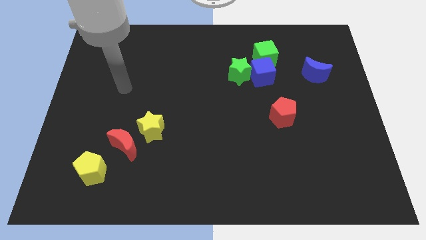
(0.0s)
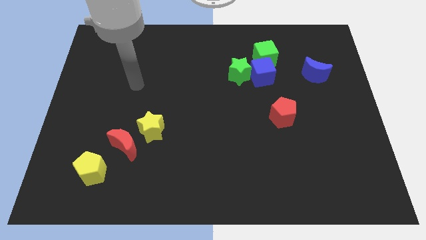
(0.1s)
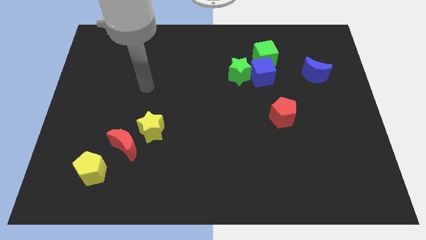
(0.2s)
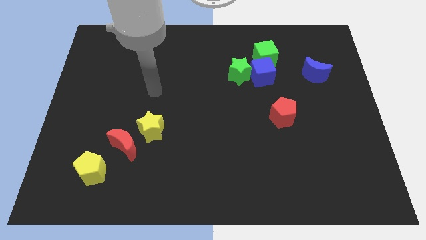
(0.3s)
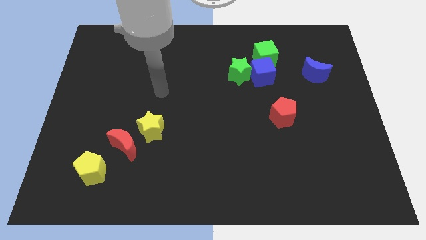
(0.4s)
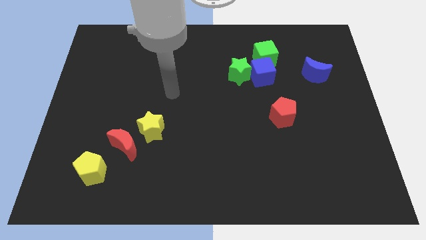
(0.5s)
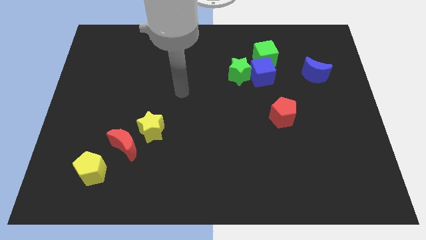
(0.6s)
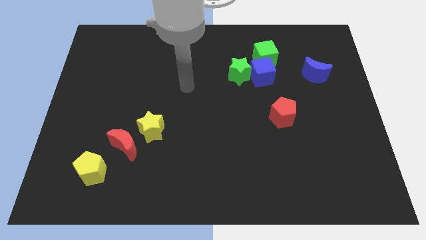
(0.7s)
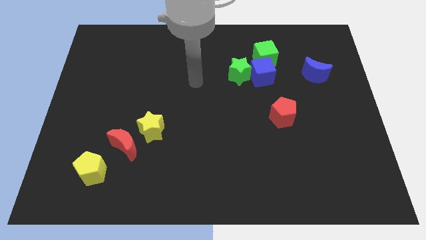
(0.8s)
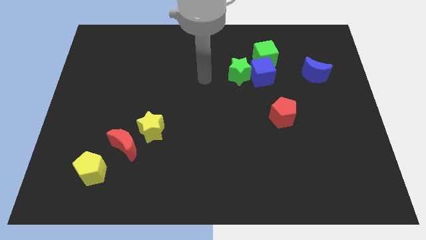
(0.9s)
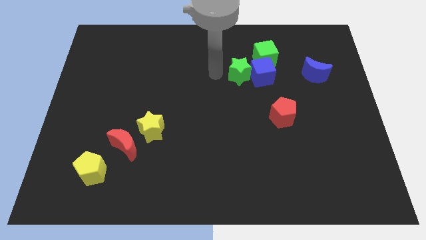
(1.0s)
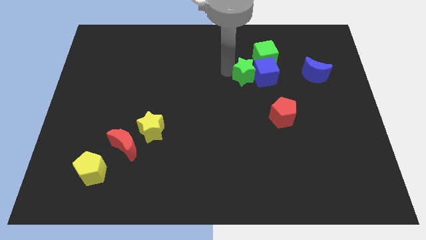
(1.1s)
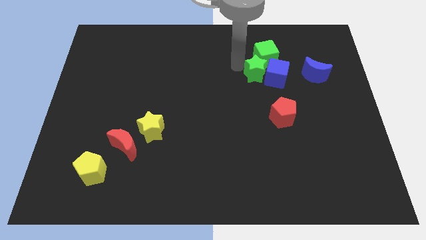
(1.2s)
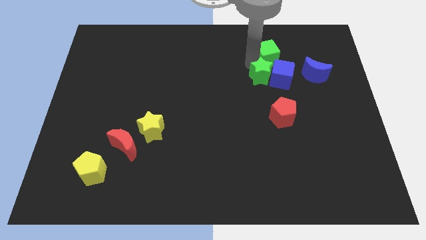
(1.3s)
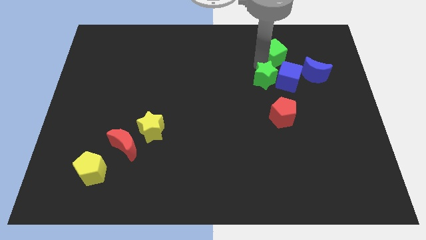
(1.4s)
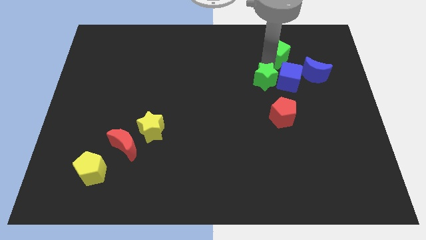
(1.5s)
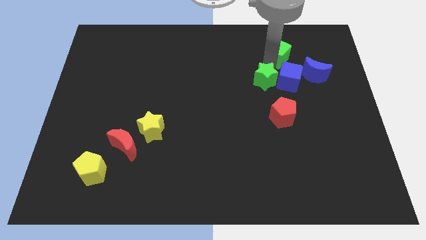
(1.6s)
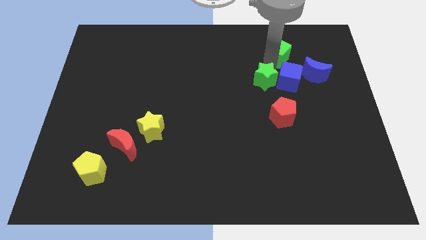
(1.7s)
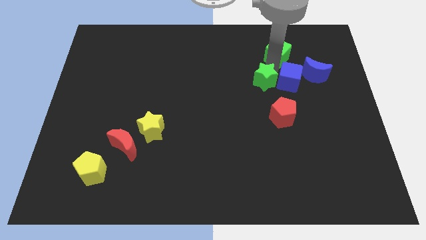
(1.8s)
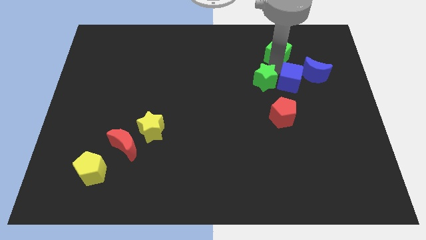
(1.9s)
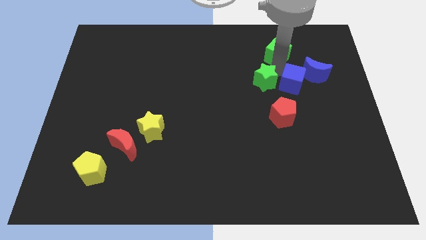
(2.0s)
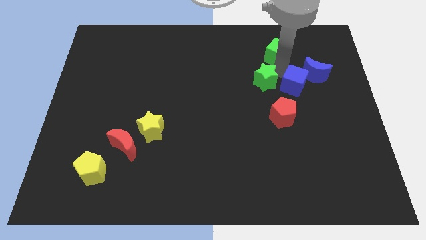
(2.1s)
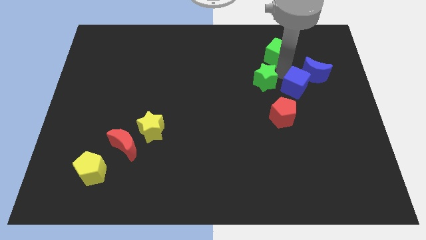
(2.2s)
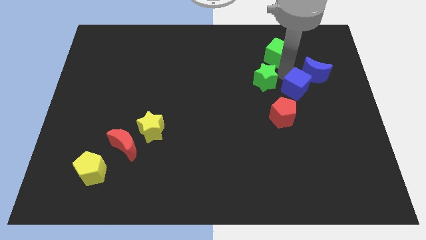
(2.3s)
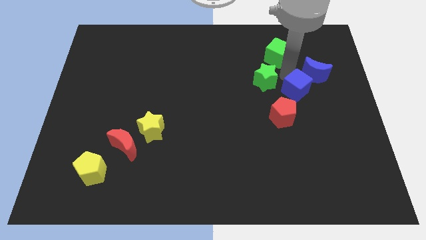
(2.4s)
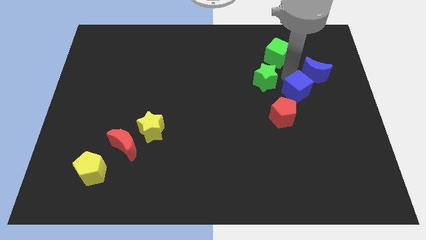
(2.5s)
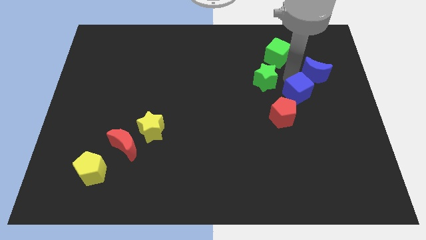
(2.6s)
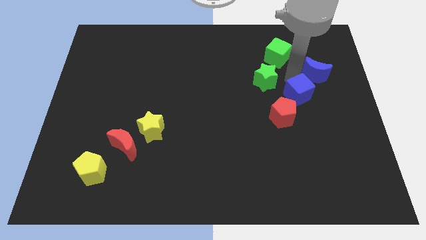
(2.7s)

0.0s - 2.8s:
pull the blue cube apart from the green star and green cube

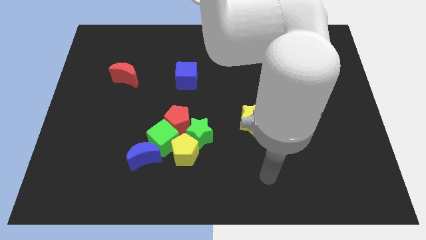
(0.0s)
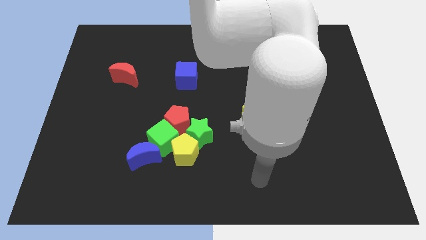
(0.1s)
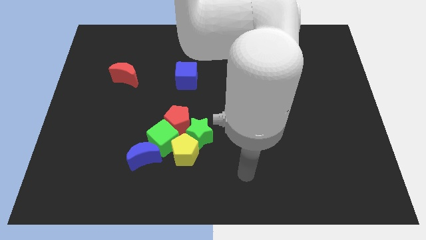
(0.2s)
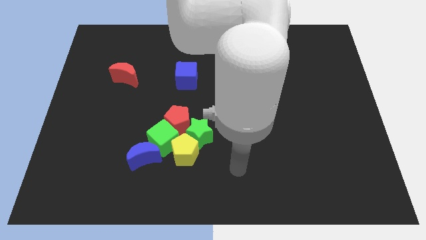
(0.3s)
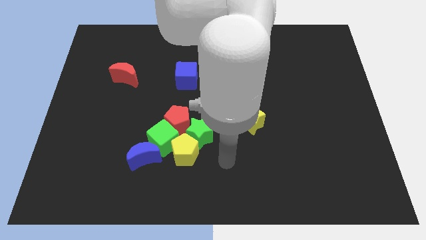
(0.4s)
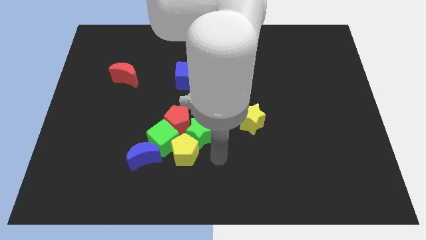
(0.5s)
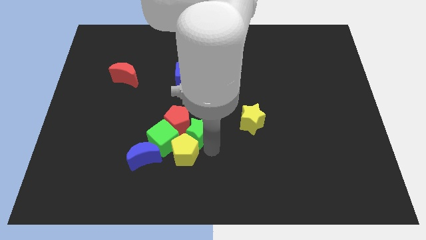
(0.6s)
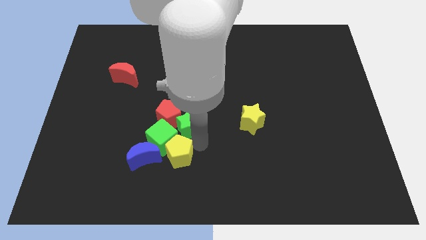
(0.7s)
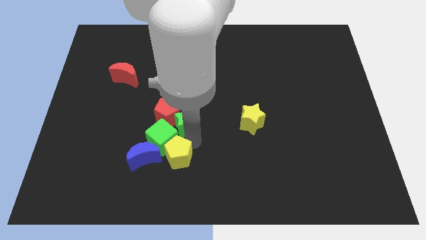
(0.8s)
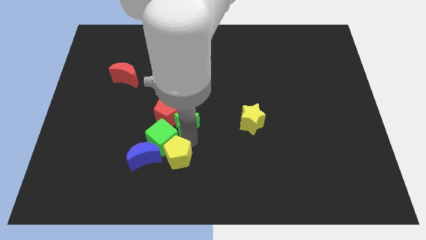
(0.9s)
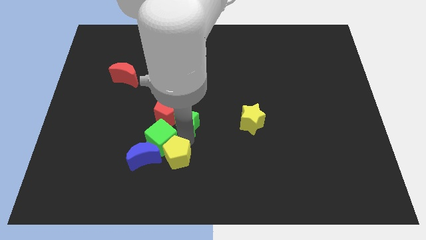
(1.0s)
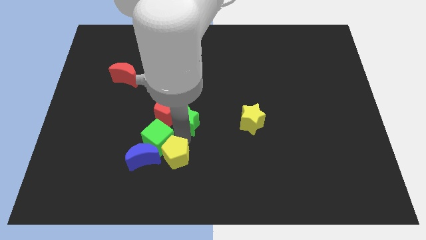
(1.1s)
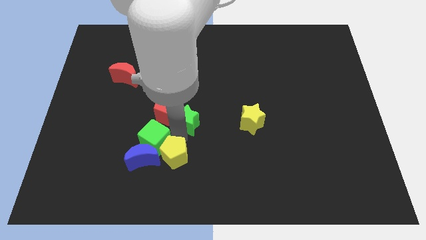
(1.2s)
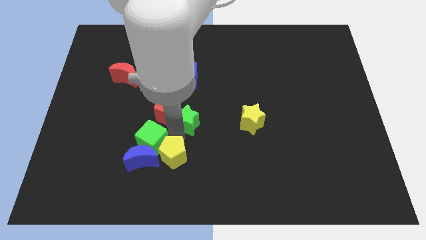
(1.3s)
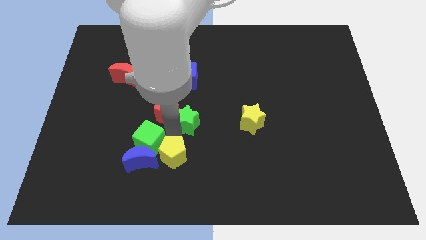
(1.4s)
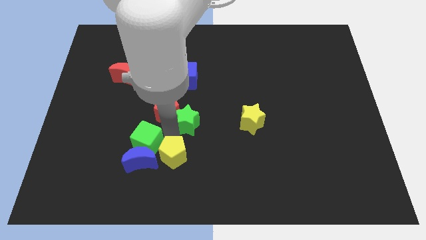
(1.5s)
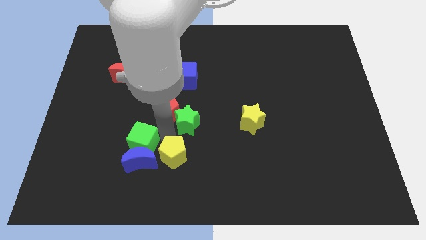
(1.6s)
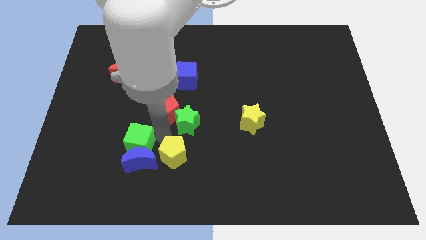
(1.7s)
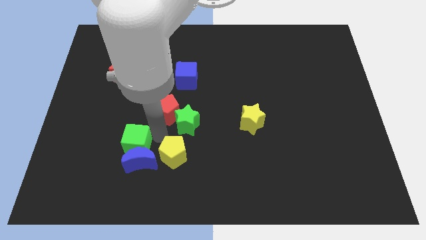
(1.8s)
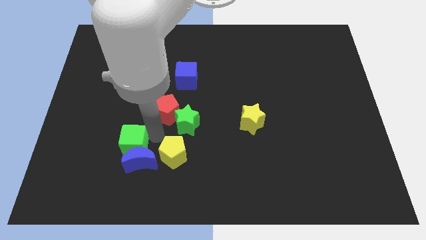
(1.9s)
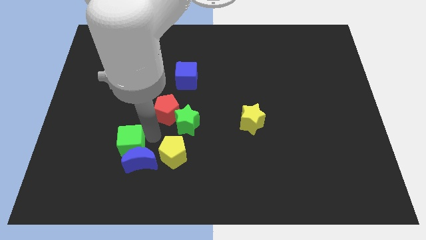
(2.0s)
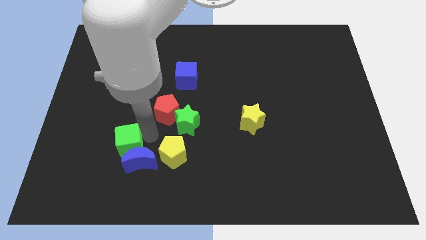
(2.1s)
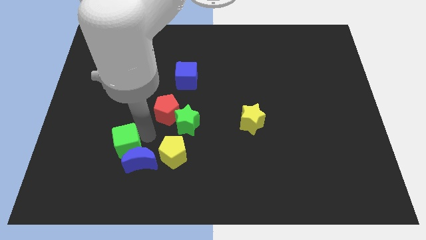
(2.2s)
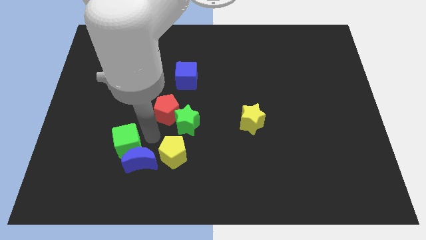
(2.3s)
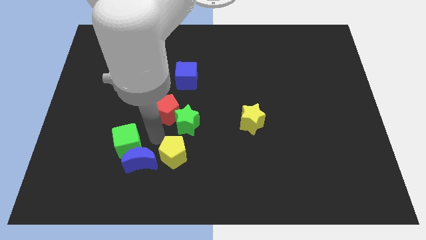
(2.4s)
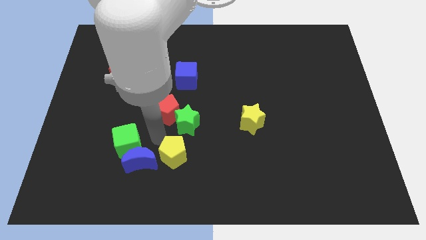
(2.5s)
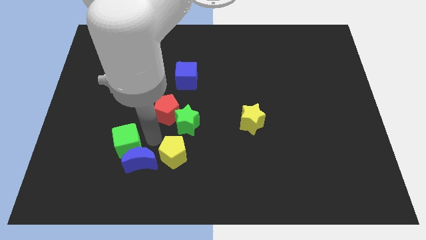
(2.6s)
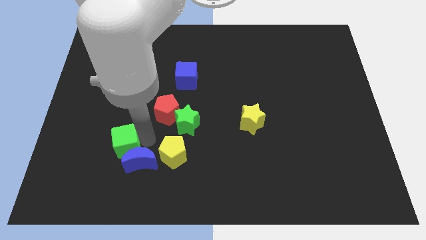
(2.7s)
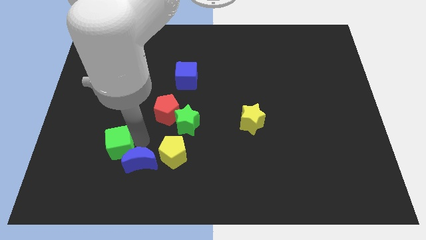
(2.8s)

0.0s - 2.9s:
pull the green cube apart from the clump

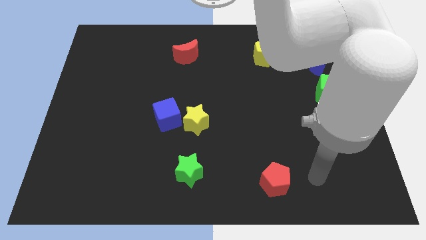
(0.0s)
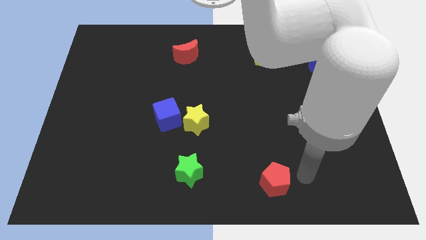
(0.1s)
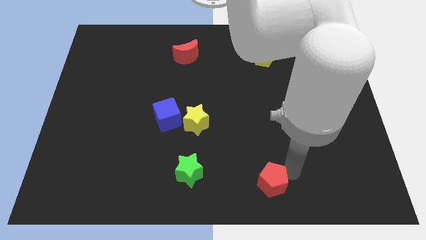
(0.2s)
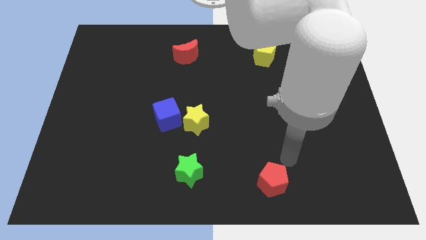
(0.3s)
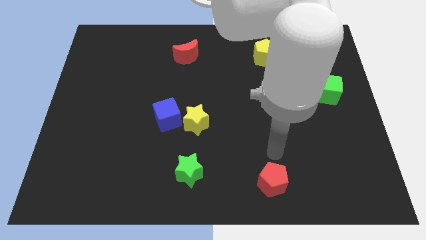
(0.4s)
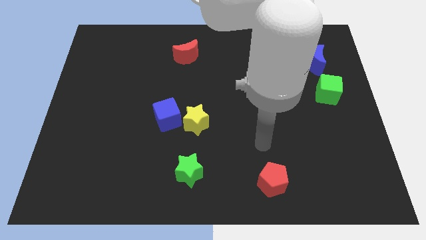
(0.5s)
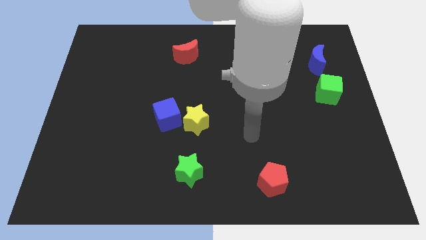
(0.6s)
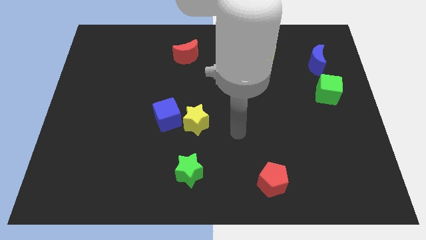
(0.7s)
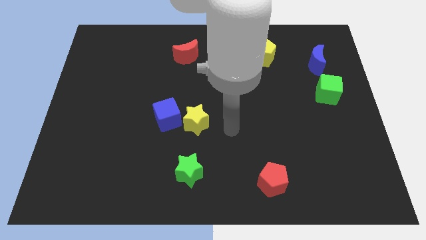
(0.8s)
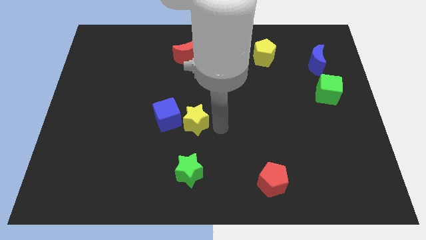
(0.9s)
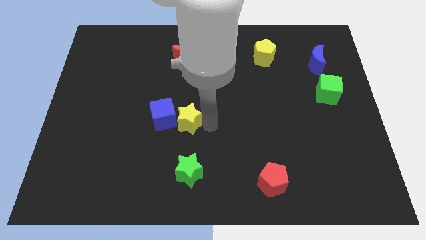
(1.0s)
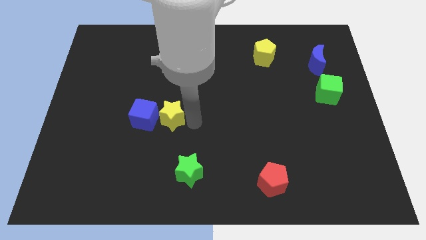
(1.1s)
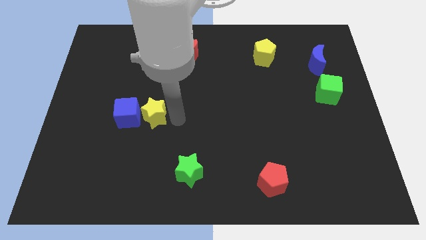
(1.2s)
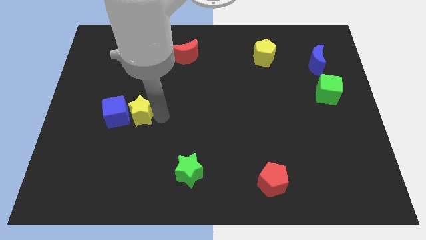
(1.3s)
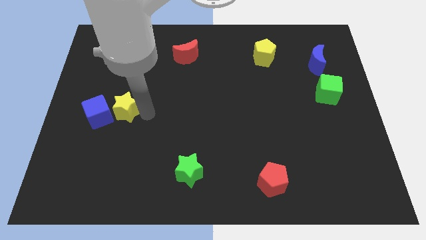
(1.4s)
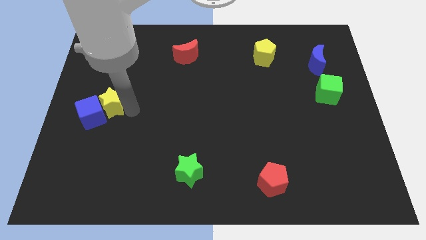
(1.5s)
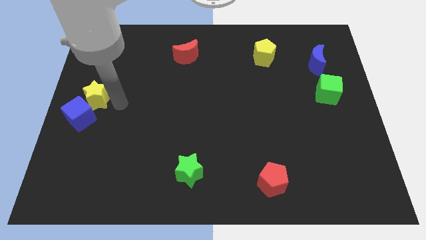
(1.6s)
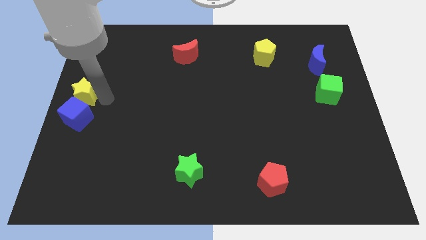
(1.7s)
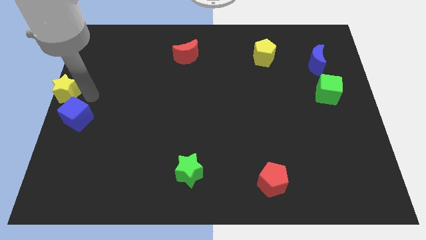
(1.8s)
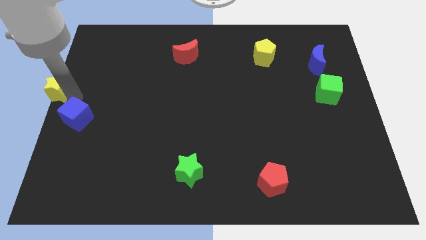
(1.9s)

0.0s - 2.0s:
move the blue cube away from the yellow star

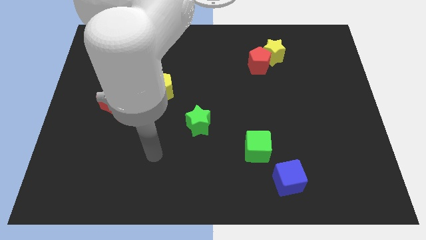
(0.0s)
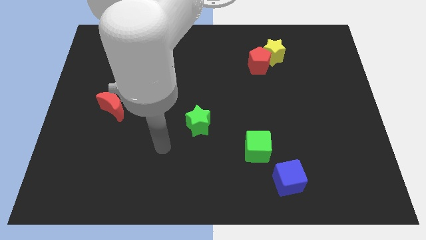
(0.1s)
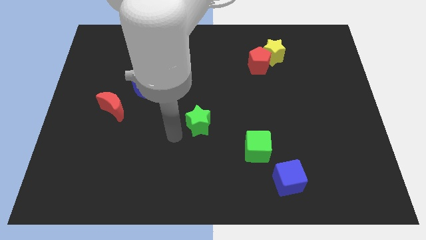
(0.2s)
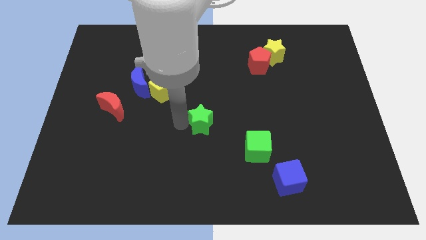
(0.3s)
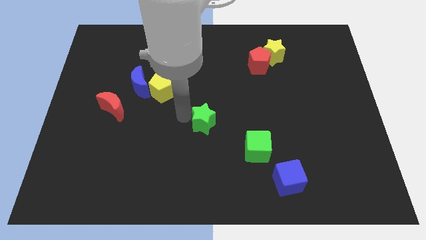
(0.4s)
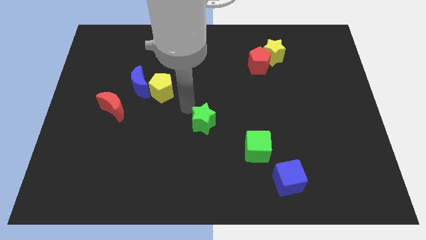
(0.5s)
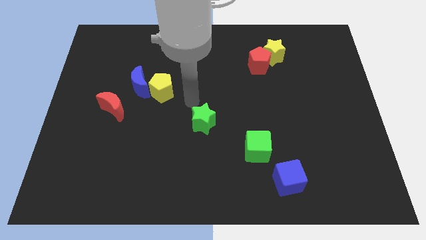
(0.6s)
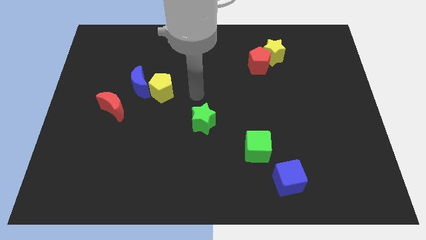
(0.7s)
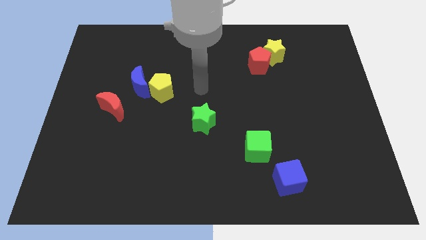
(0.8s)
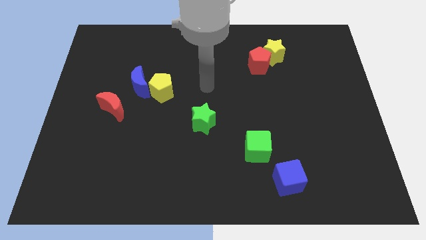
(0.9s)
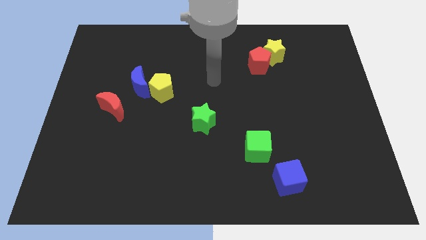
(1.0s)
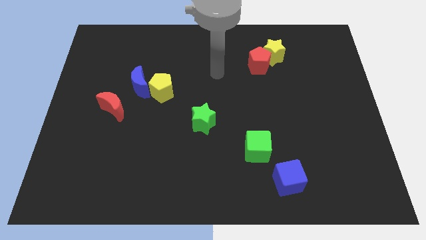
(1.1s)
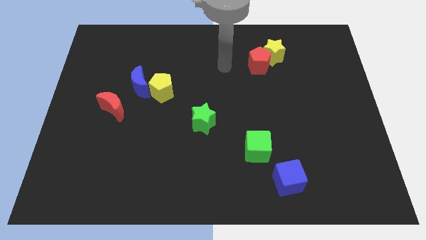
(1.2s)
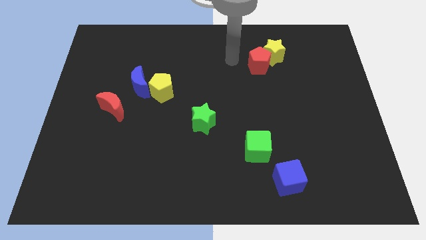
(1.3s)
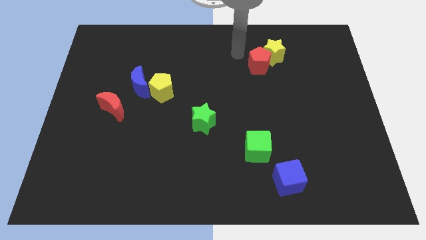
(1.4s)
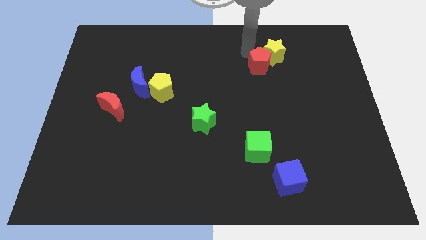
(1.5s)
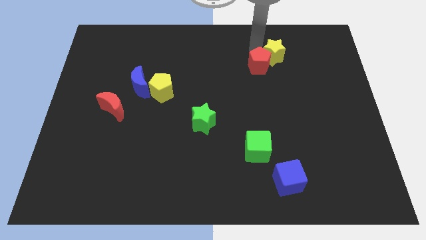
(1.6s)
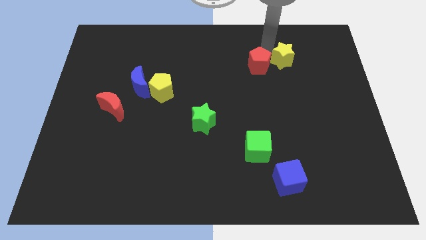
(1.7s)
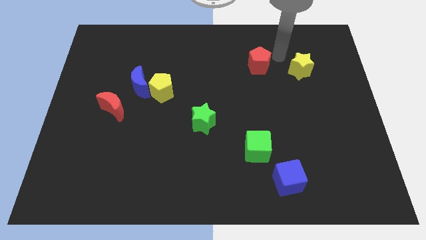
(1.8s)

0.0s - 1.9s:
separate the red pentagon from the yellow star
